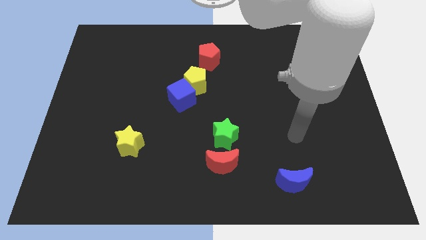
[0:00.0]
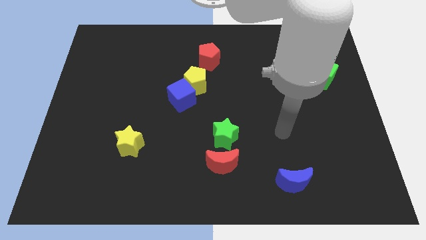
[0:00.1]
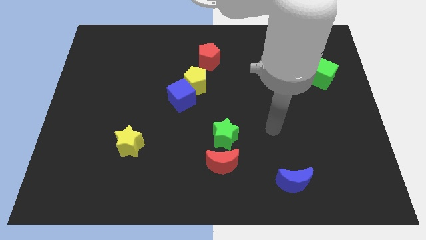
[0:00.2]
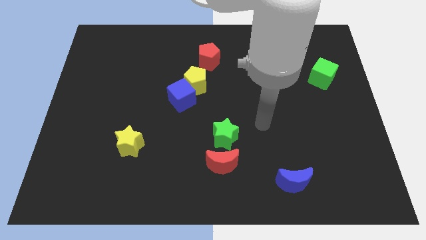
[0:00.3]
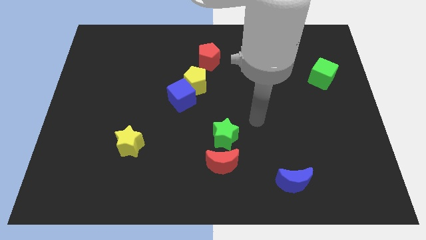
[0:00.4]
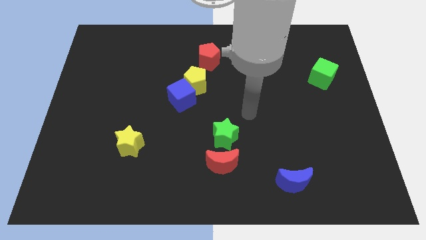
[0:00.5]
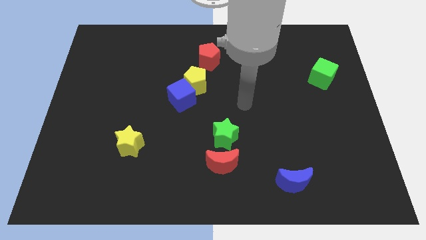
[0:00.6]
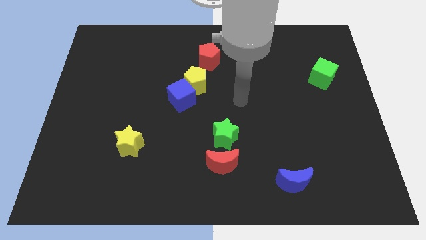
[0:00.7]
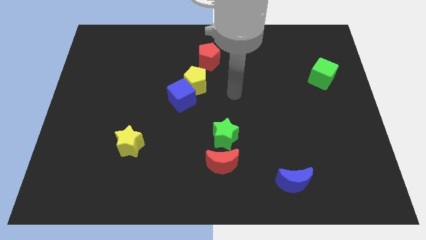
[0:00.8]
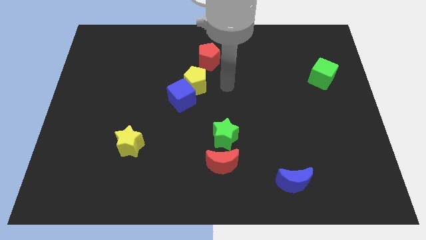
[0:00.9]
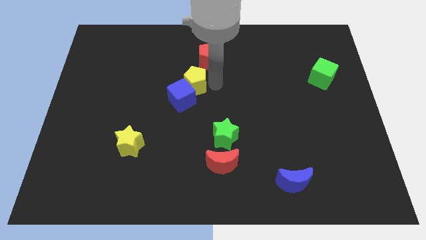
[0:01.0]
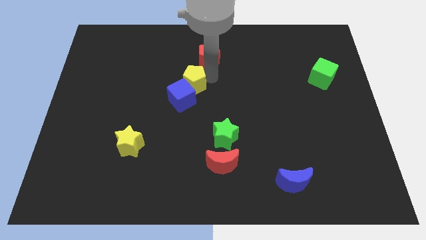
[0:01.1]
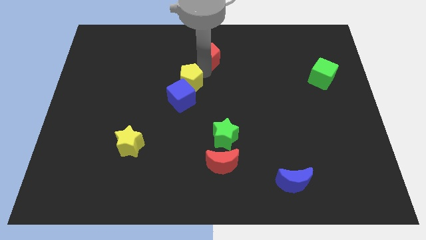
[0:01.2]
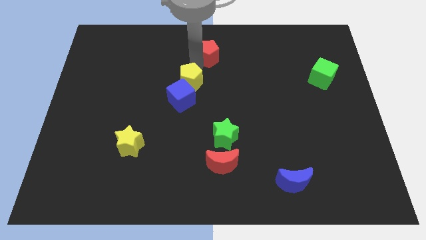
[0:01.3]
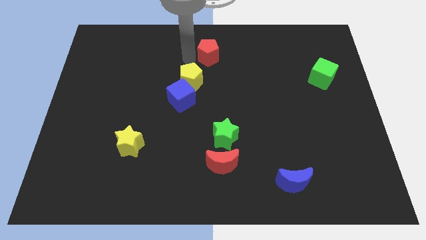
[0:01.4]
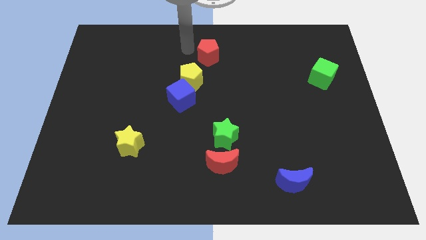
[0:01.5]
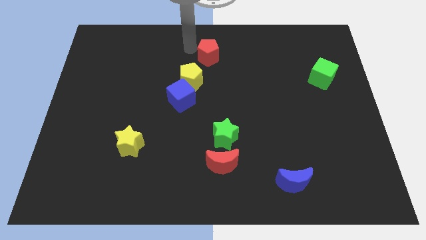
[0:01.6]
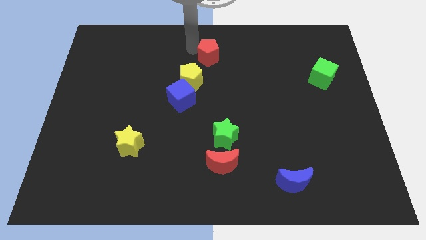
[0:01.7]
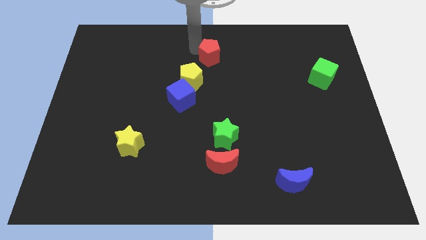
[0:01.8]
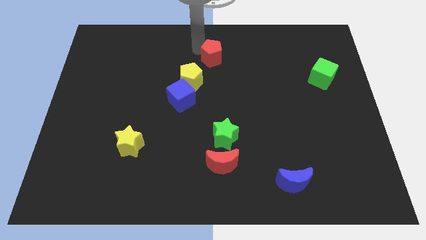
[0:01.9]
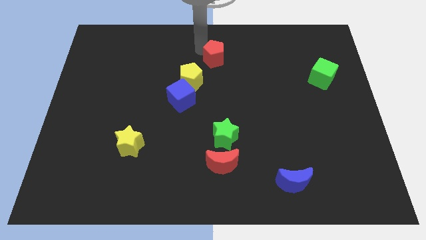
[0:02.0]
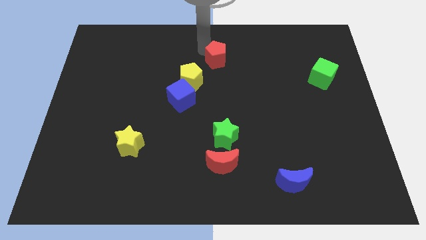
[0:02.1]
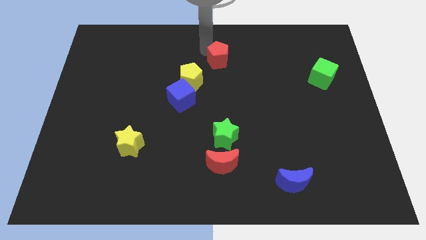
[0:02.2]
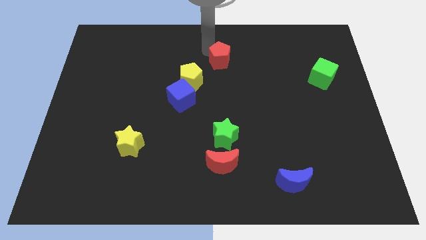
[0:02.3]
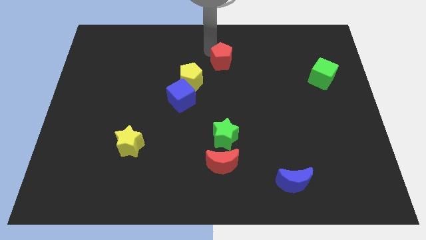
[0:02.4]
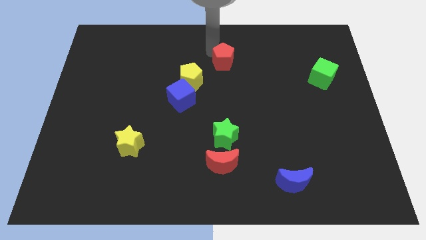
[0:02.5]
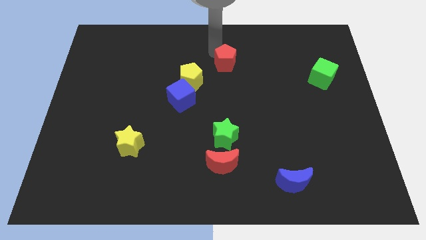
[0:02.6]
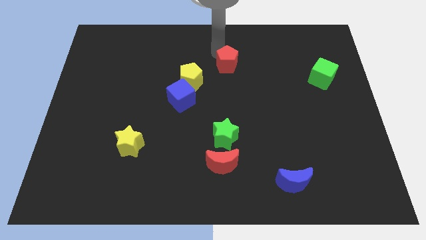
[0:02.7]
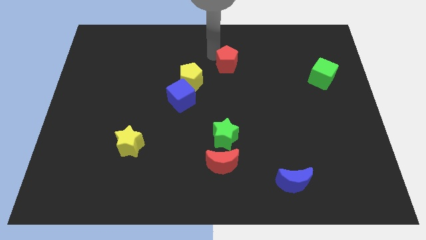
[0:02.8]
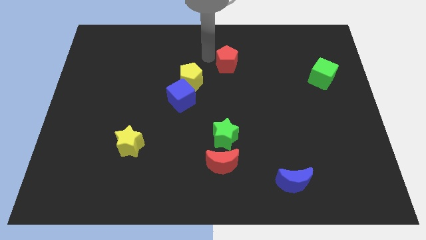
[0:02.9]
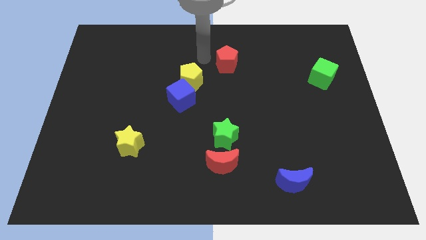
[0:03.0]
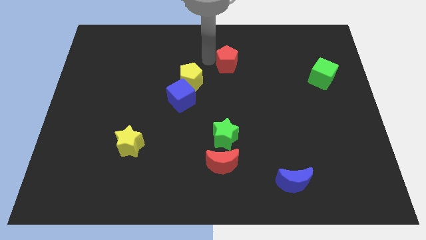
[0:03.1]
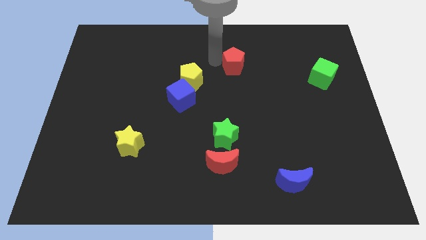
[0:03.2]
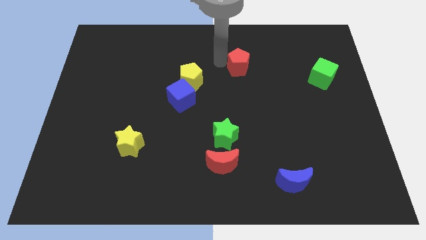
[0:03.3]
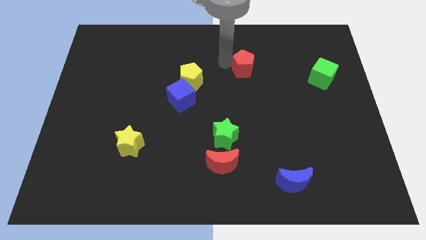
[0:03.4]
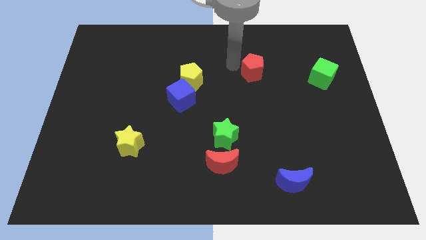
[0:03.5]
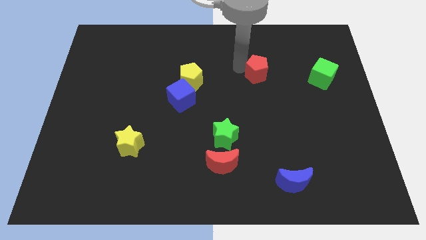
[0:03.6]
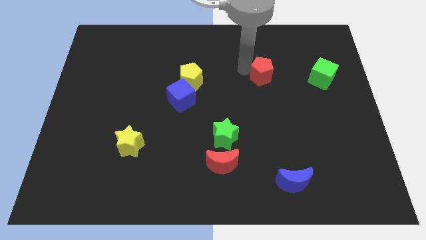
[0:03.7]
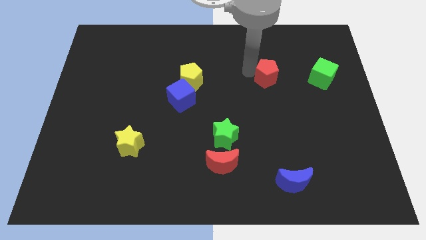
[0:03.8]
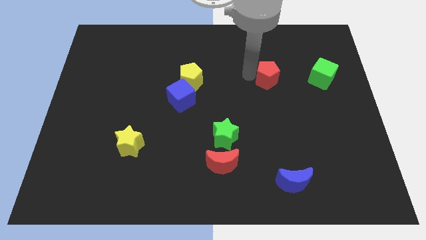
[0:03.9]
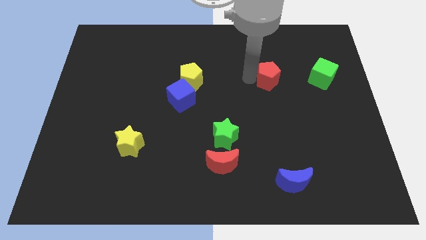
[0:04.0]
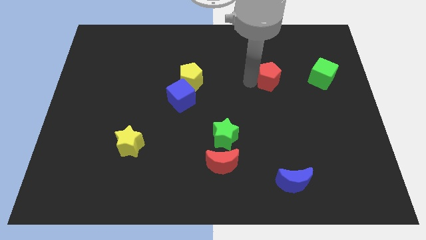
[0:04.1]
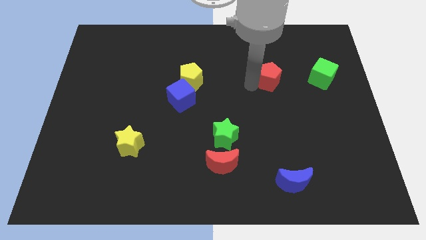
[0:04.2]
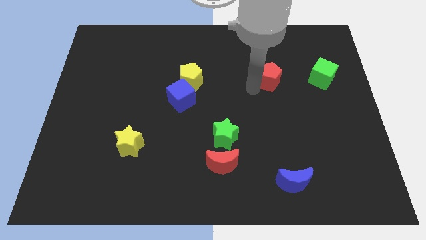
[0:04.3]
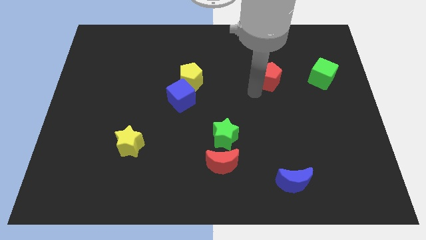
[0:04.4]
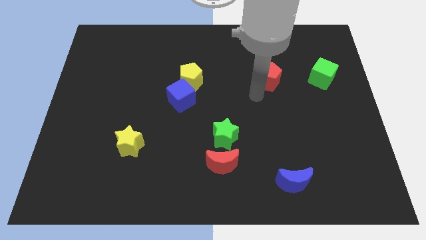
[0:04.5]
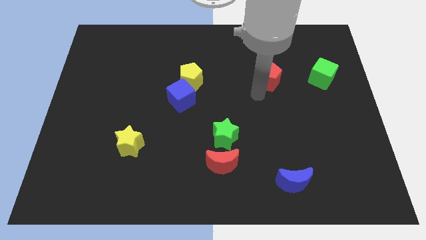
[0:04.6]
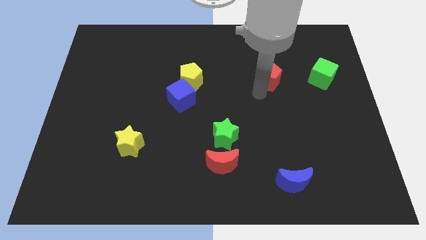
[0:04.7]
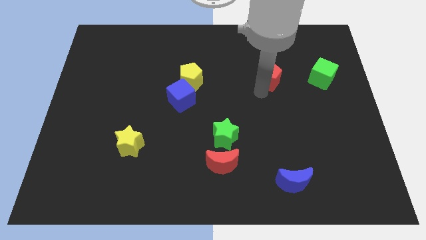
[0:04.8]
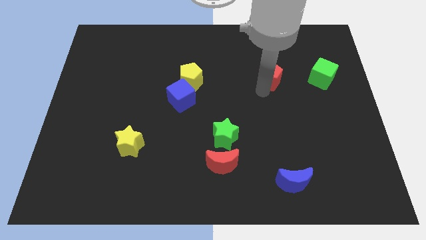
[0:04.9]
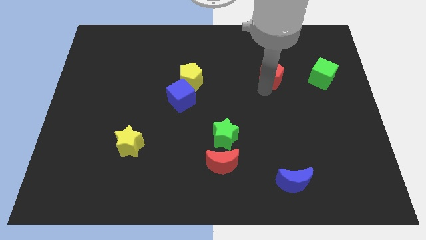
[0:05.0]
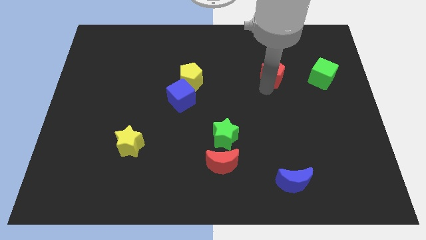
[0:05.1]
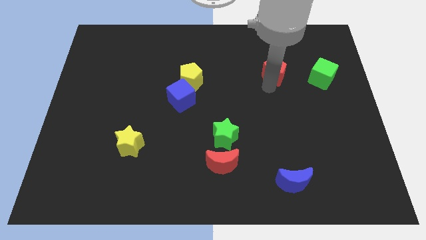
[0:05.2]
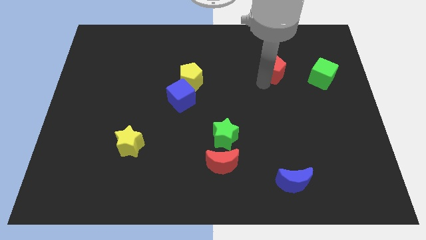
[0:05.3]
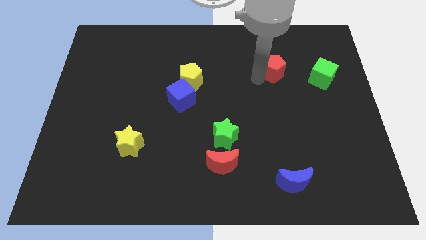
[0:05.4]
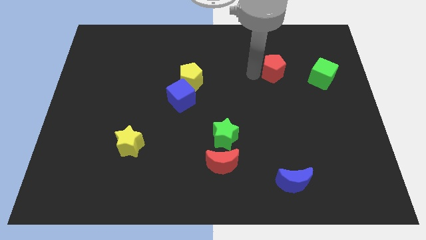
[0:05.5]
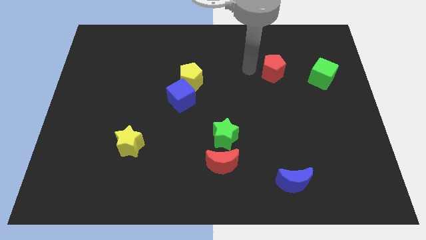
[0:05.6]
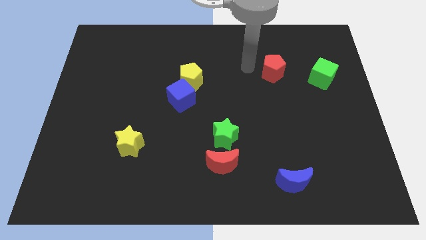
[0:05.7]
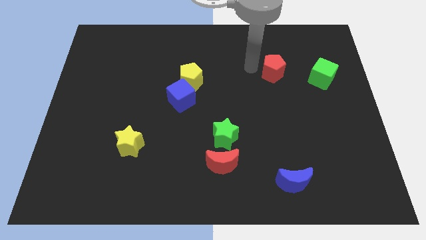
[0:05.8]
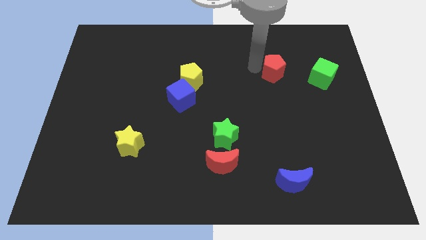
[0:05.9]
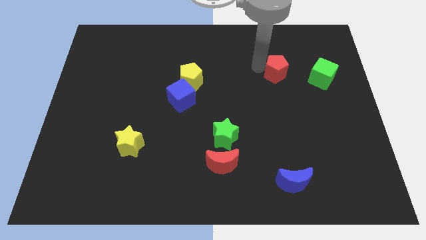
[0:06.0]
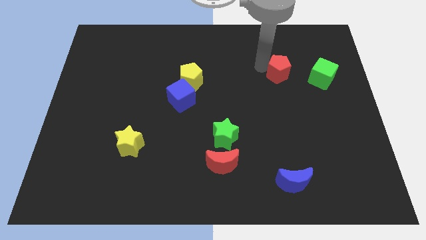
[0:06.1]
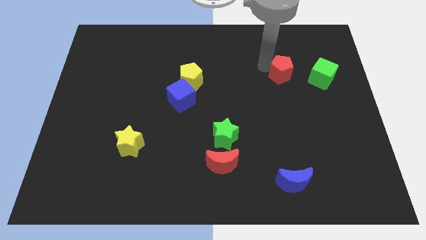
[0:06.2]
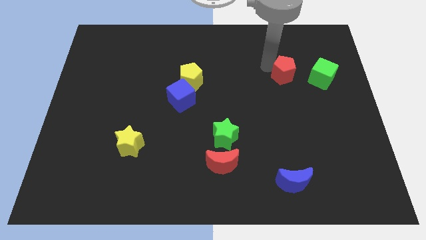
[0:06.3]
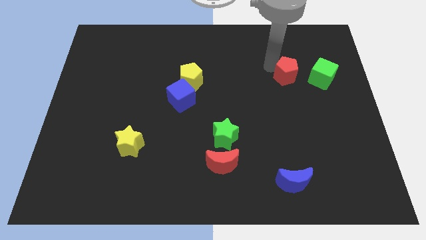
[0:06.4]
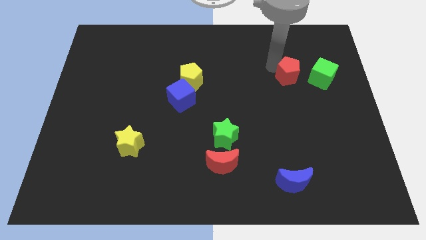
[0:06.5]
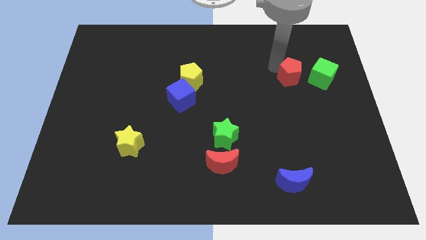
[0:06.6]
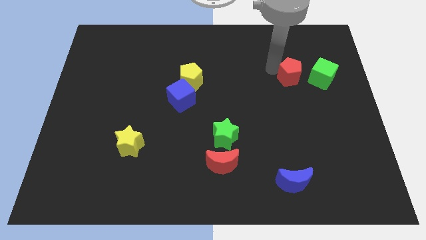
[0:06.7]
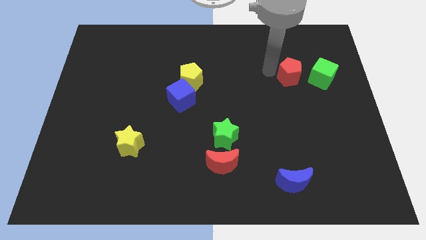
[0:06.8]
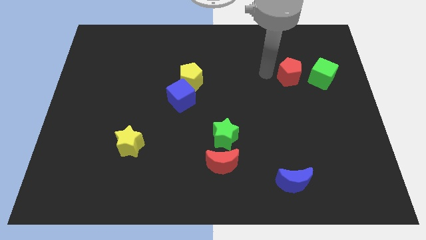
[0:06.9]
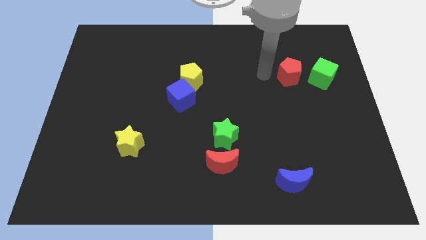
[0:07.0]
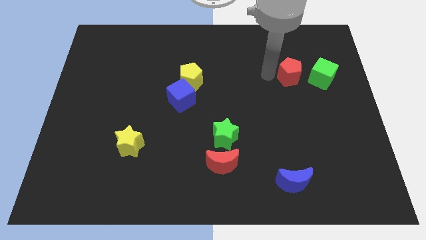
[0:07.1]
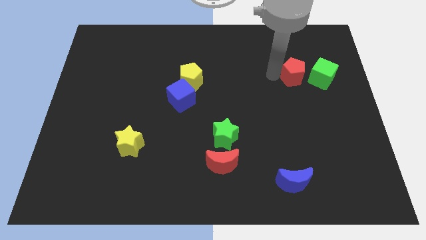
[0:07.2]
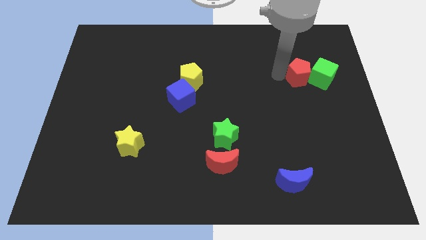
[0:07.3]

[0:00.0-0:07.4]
slide the red pentagon towards the green cube
